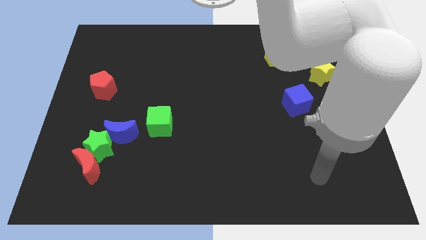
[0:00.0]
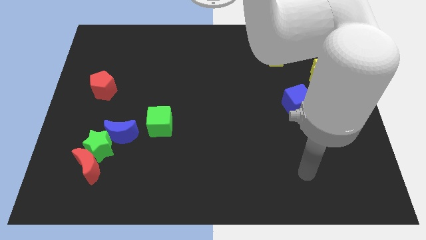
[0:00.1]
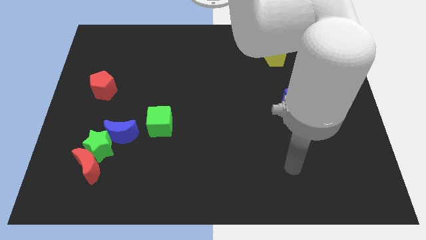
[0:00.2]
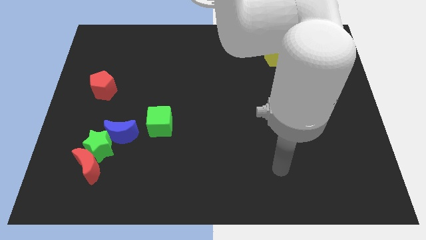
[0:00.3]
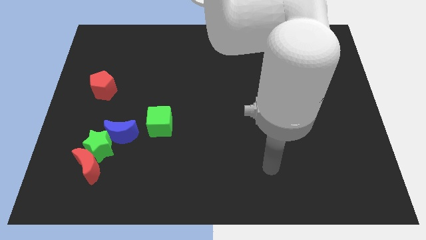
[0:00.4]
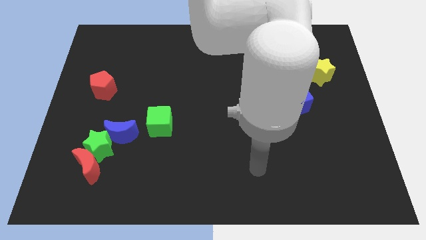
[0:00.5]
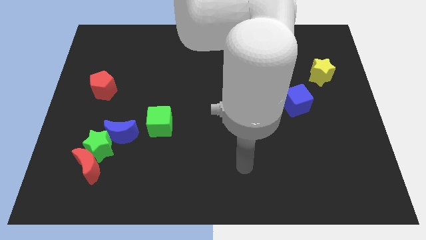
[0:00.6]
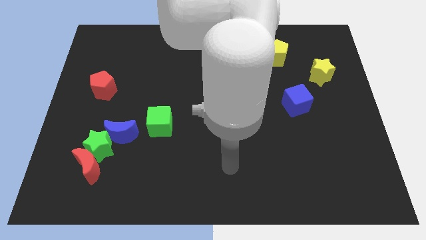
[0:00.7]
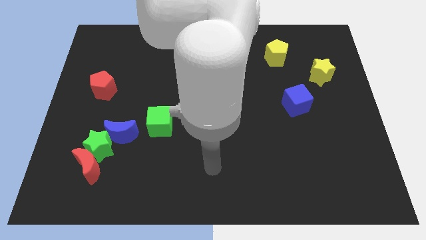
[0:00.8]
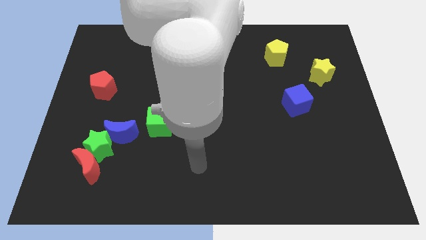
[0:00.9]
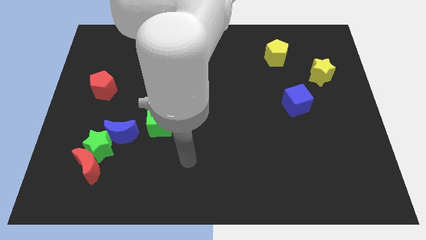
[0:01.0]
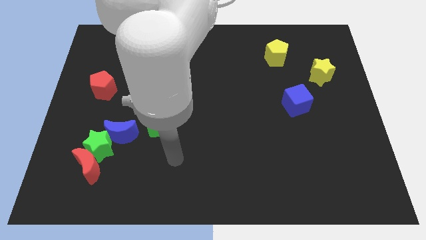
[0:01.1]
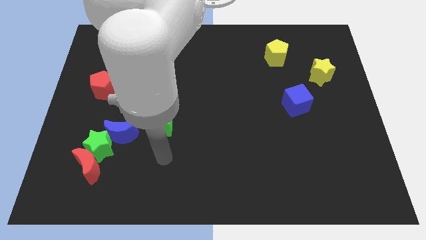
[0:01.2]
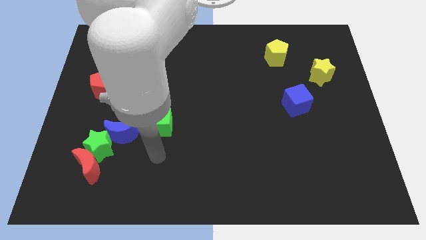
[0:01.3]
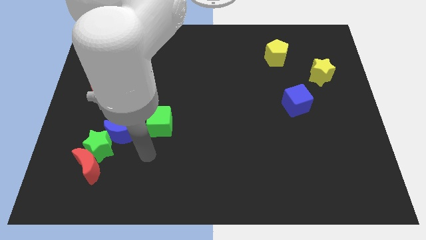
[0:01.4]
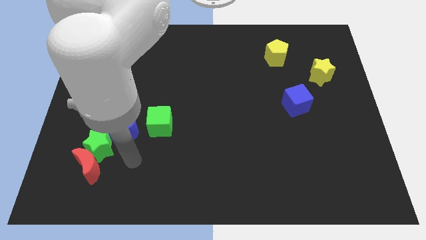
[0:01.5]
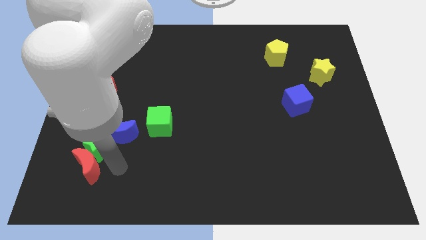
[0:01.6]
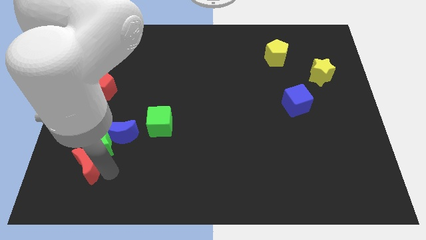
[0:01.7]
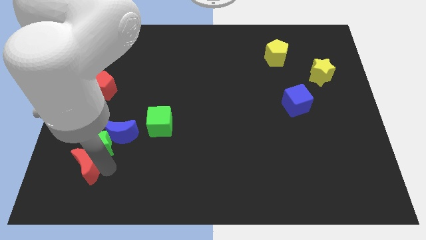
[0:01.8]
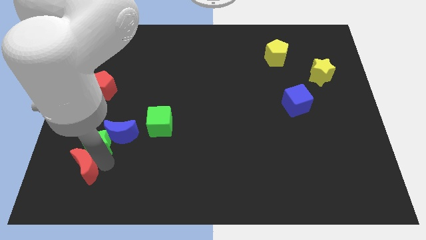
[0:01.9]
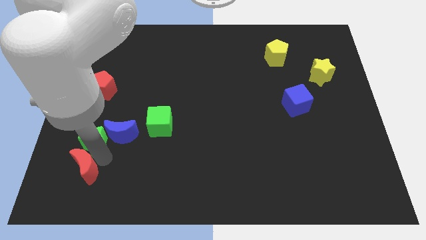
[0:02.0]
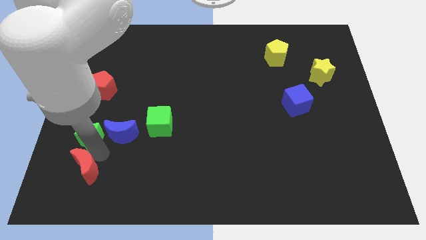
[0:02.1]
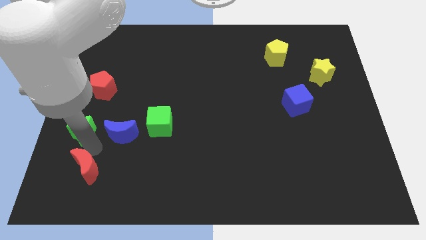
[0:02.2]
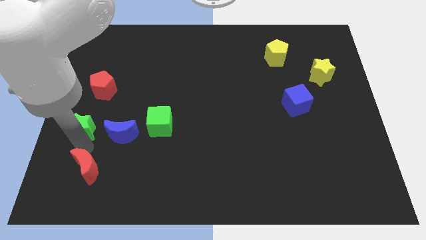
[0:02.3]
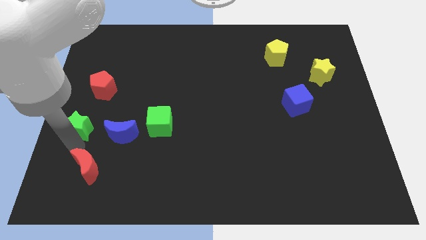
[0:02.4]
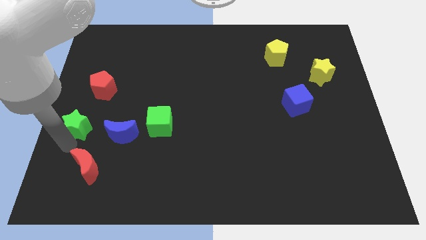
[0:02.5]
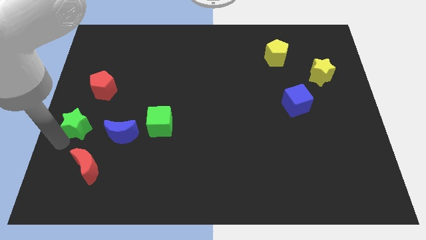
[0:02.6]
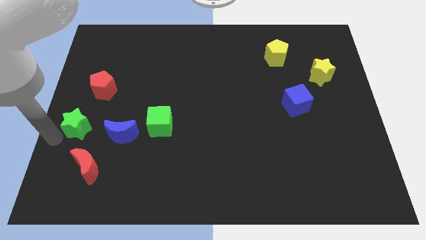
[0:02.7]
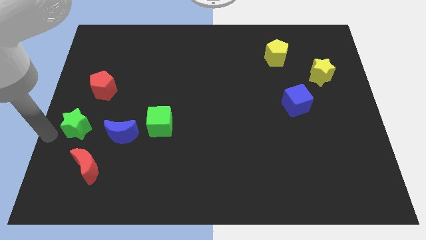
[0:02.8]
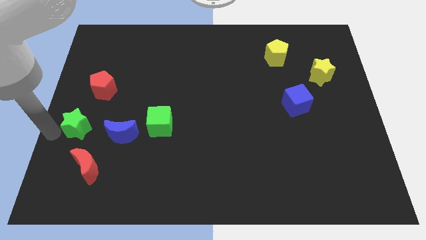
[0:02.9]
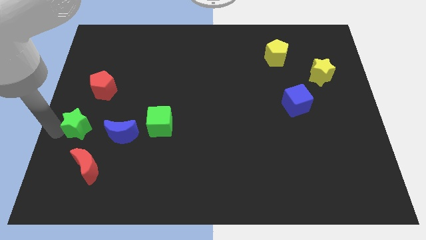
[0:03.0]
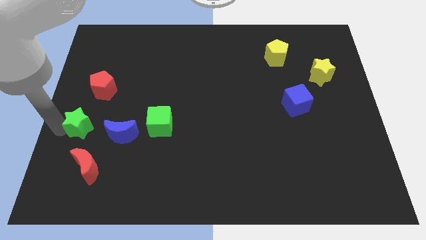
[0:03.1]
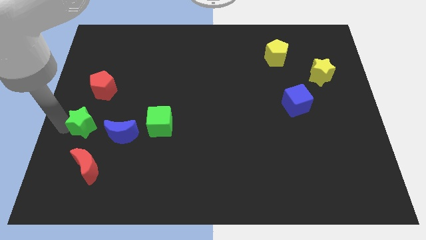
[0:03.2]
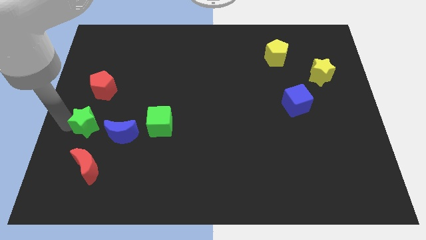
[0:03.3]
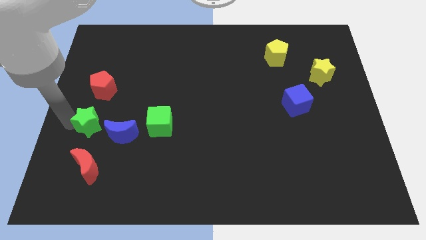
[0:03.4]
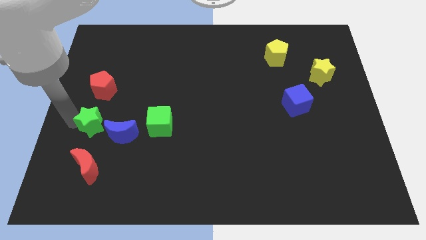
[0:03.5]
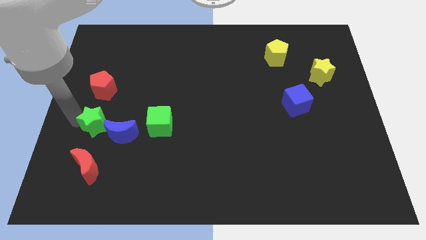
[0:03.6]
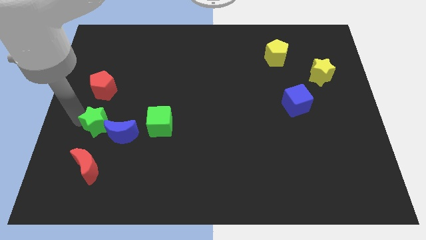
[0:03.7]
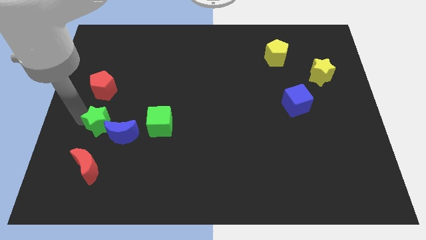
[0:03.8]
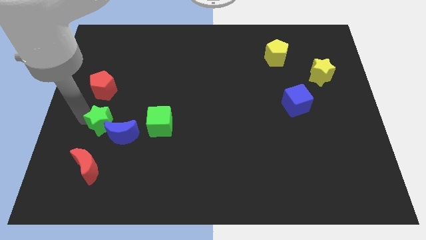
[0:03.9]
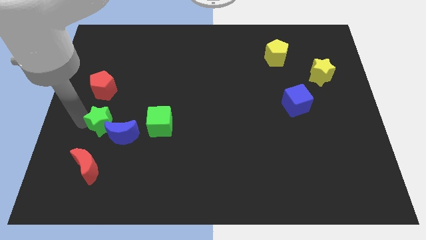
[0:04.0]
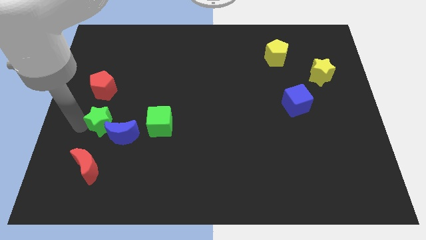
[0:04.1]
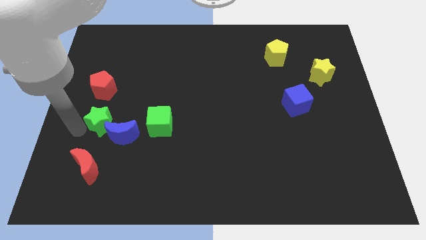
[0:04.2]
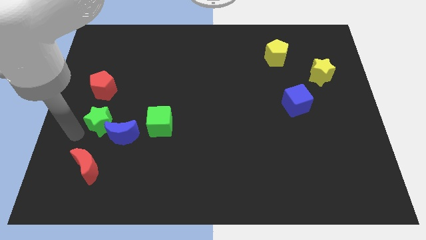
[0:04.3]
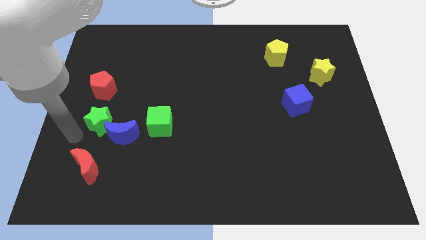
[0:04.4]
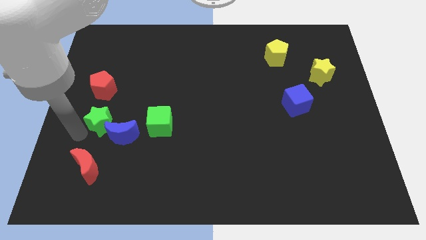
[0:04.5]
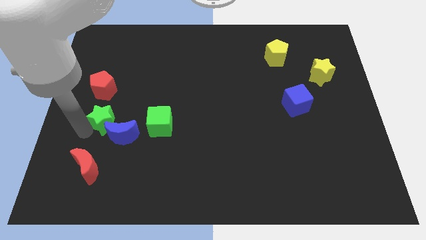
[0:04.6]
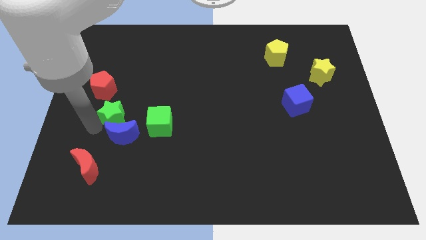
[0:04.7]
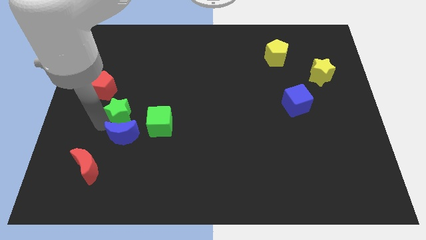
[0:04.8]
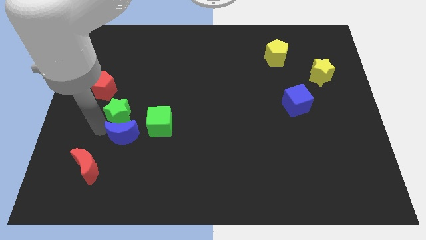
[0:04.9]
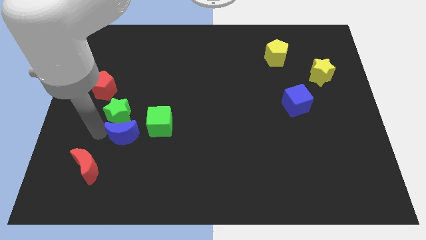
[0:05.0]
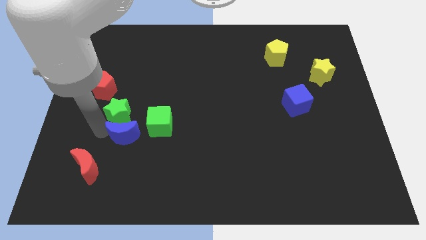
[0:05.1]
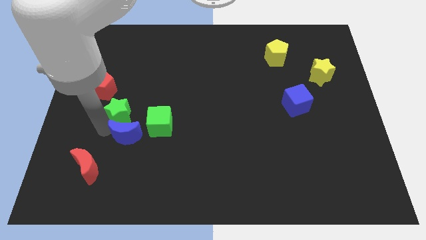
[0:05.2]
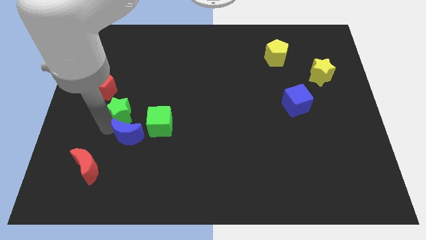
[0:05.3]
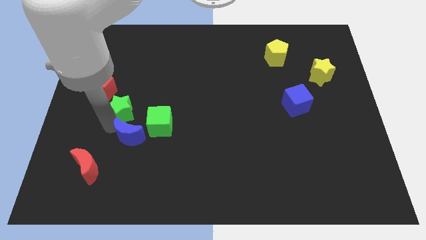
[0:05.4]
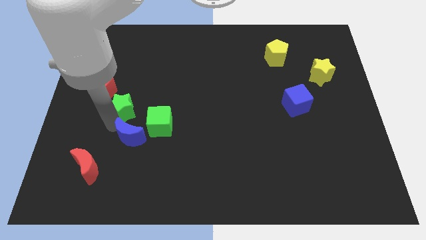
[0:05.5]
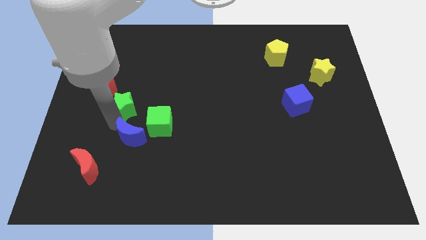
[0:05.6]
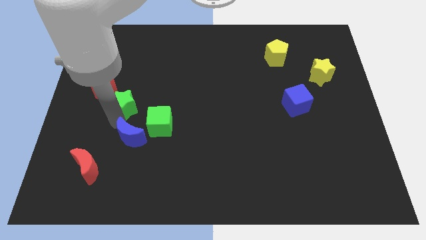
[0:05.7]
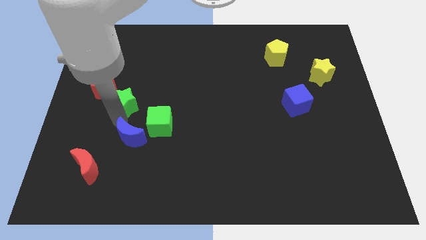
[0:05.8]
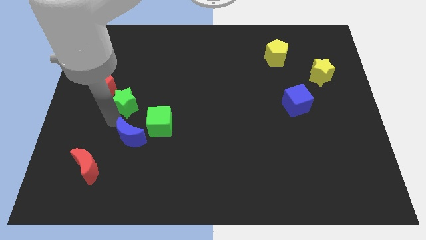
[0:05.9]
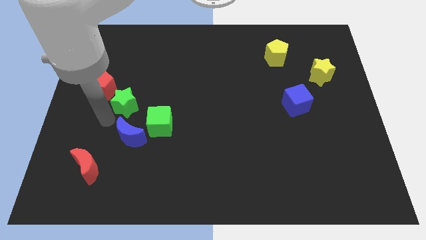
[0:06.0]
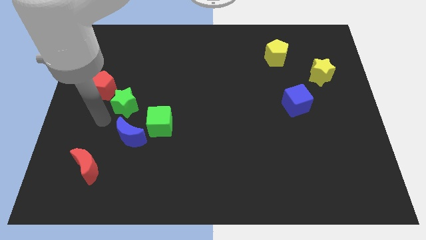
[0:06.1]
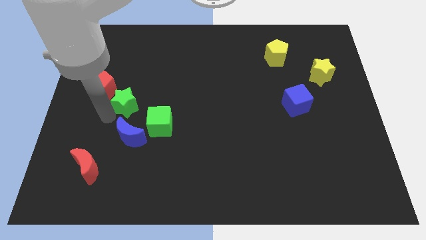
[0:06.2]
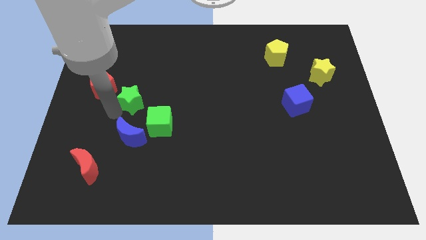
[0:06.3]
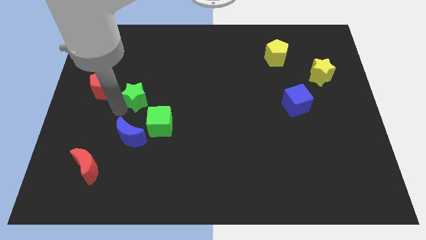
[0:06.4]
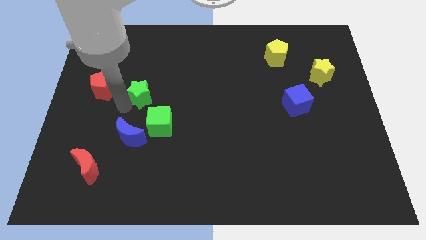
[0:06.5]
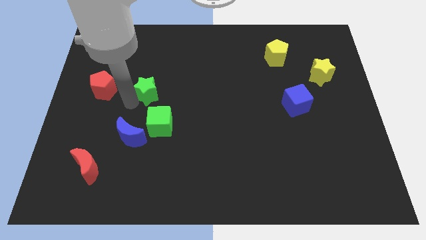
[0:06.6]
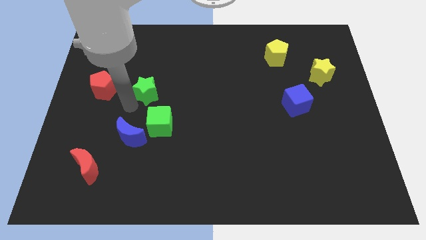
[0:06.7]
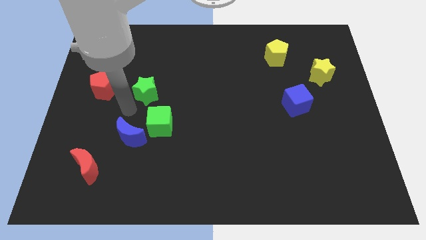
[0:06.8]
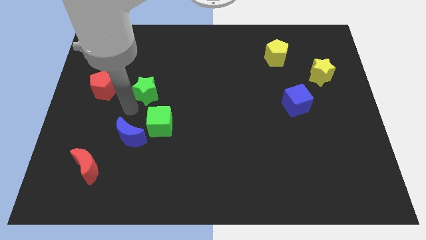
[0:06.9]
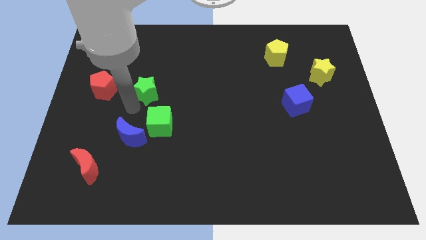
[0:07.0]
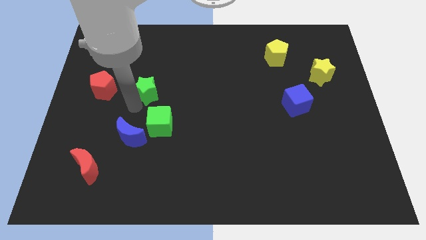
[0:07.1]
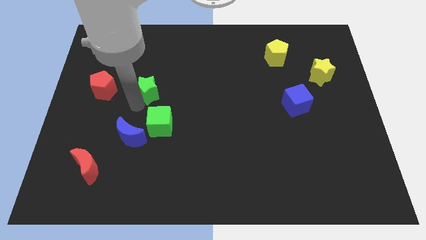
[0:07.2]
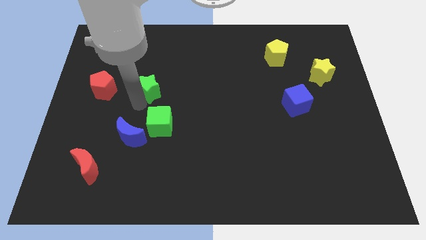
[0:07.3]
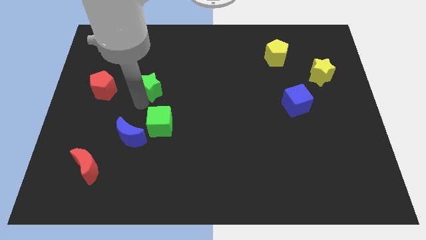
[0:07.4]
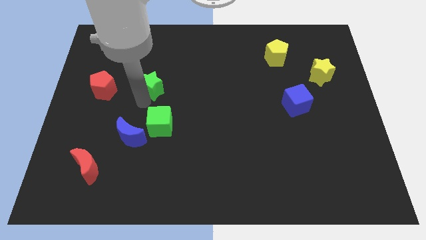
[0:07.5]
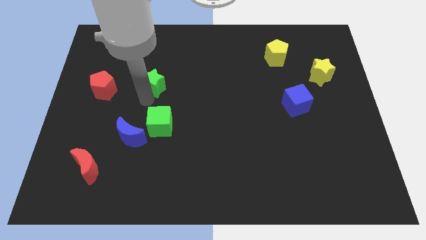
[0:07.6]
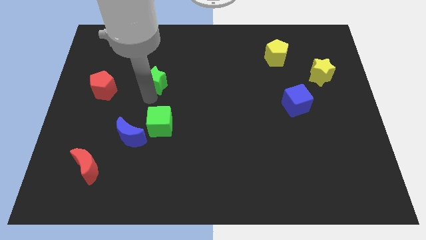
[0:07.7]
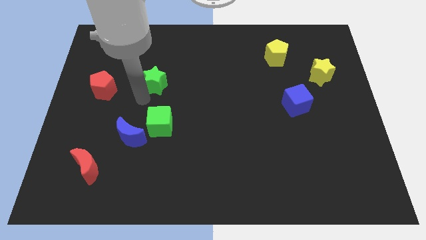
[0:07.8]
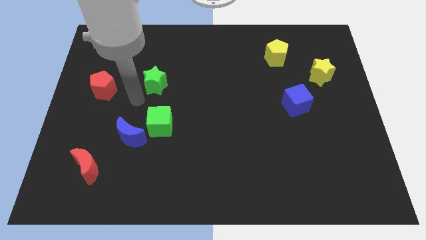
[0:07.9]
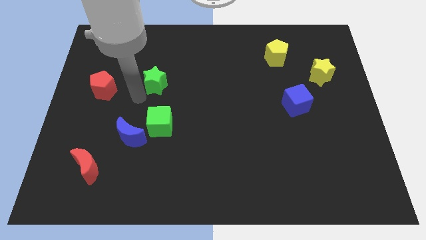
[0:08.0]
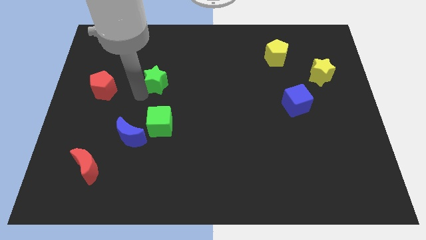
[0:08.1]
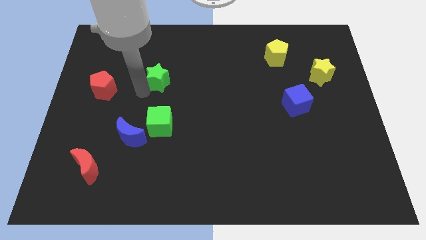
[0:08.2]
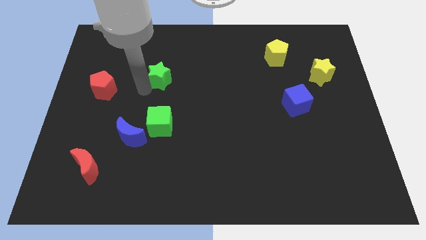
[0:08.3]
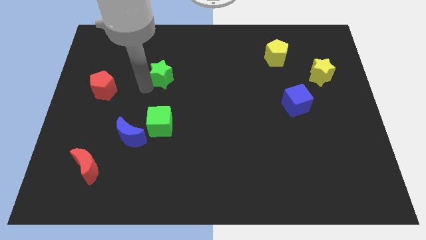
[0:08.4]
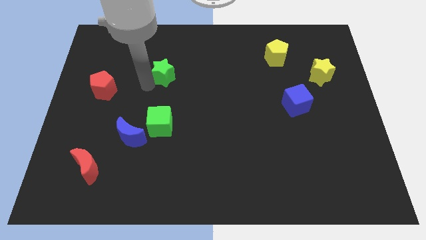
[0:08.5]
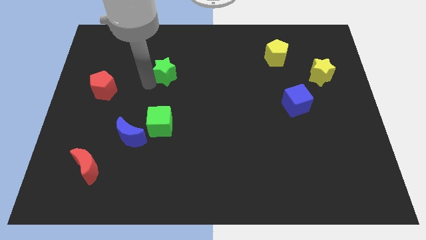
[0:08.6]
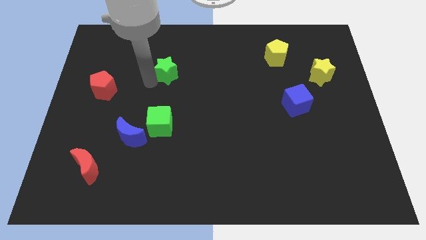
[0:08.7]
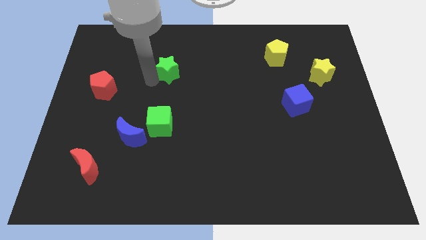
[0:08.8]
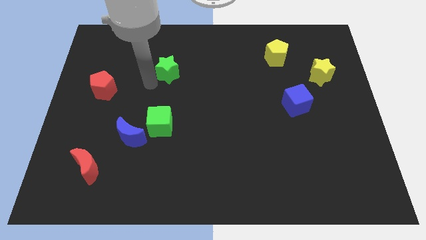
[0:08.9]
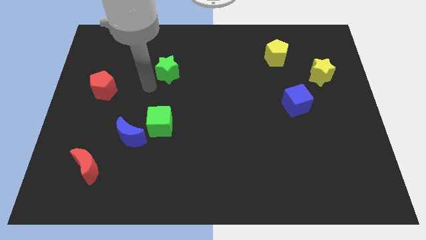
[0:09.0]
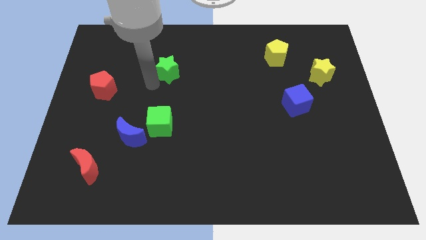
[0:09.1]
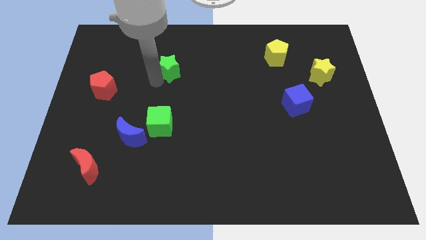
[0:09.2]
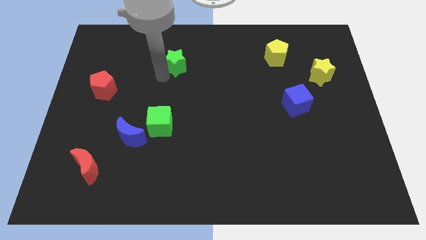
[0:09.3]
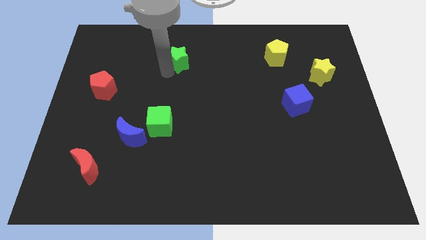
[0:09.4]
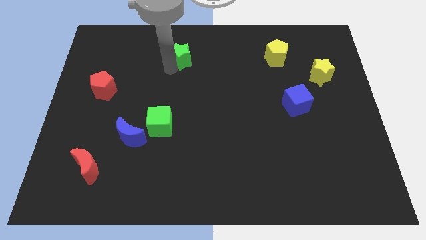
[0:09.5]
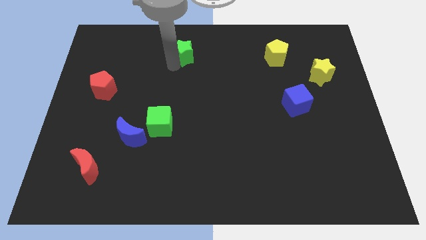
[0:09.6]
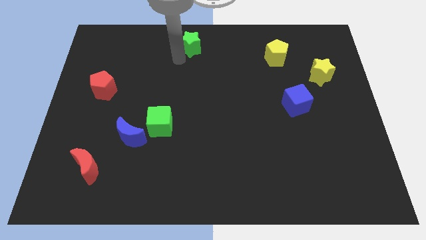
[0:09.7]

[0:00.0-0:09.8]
move the green star to the towards your base
